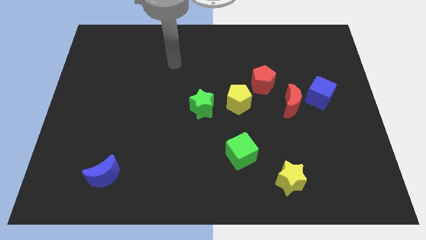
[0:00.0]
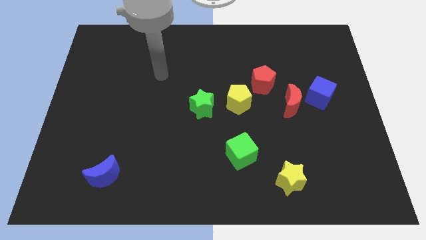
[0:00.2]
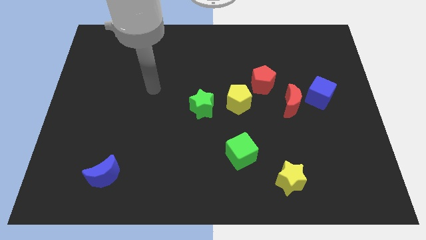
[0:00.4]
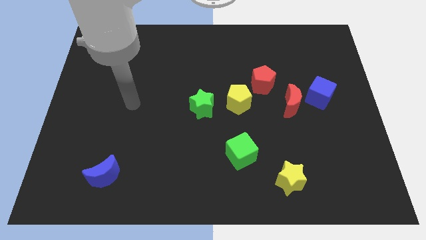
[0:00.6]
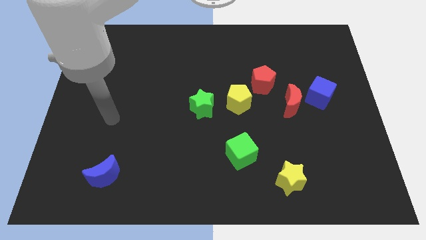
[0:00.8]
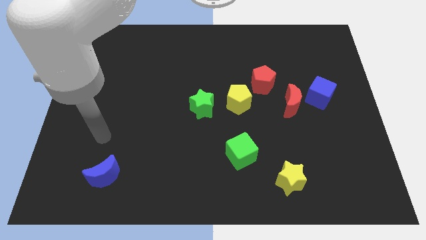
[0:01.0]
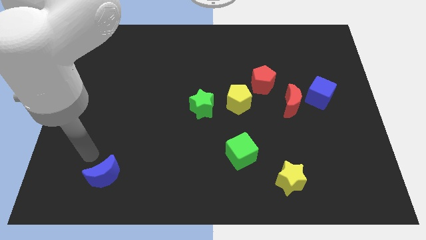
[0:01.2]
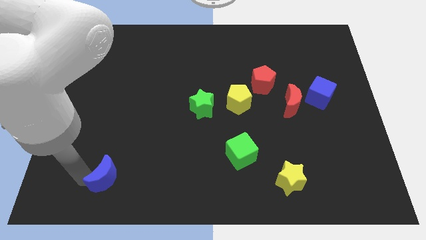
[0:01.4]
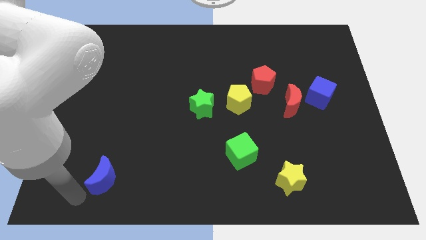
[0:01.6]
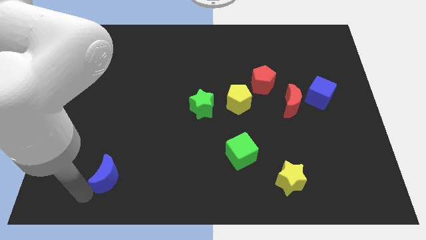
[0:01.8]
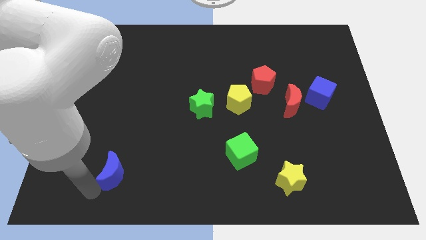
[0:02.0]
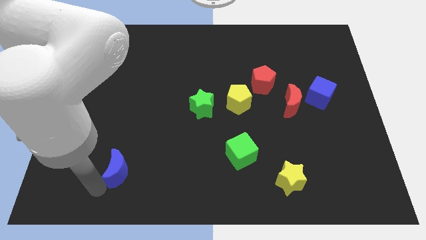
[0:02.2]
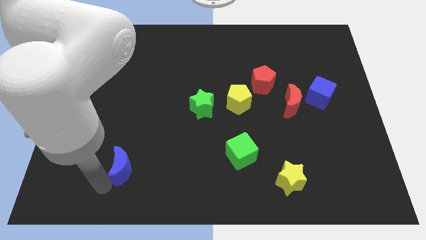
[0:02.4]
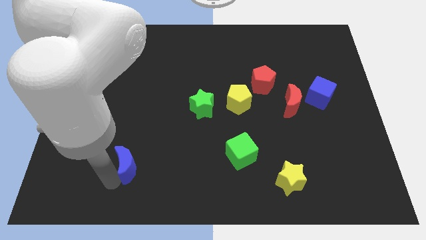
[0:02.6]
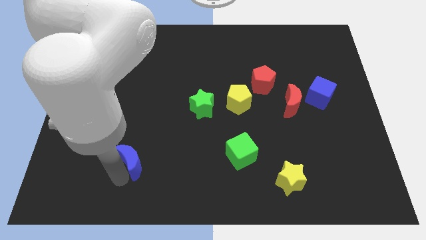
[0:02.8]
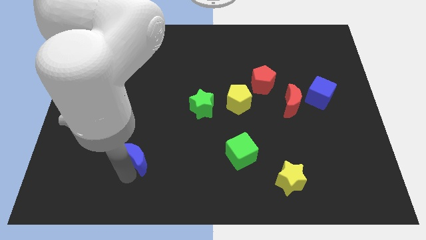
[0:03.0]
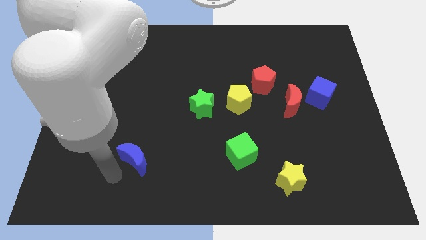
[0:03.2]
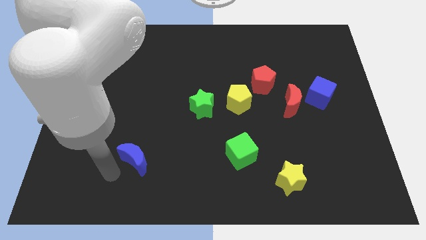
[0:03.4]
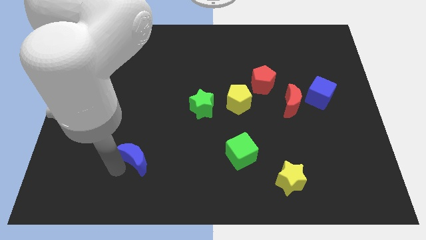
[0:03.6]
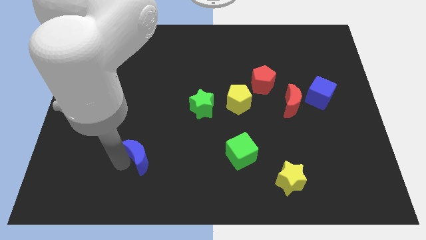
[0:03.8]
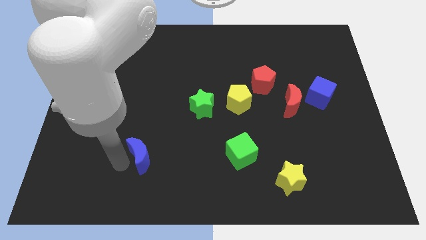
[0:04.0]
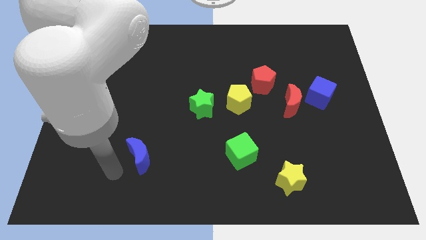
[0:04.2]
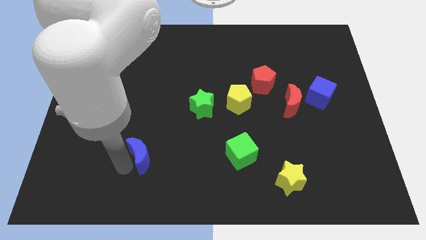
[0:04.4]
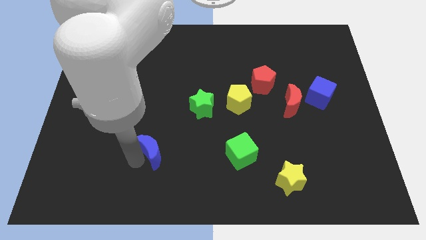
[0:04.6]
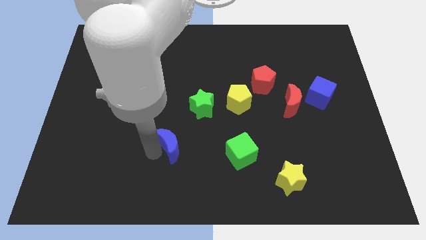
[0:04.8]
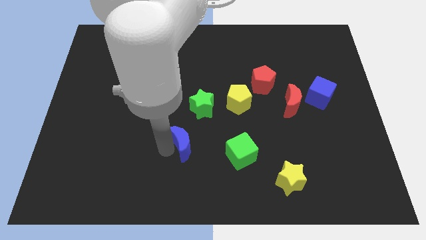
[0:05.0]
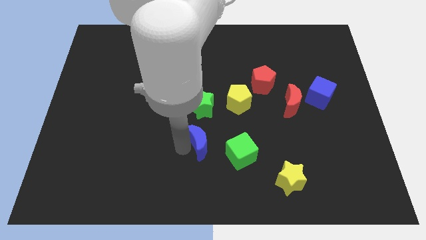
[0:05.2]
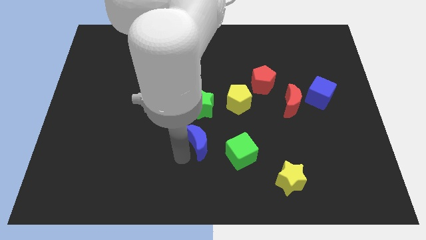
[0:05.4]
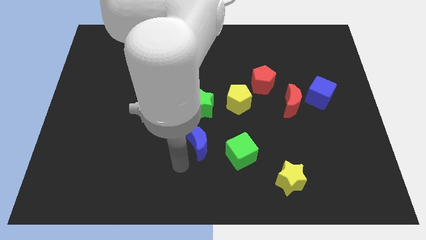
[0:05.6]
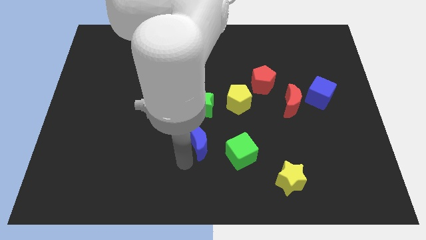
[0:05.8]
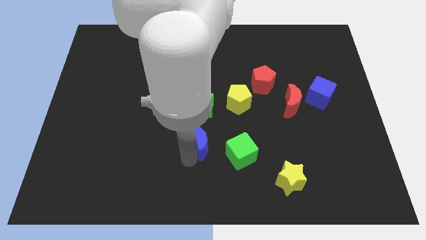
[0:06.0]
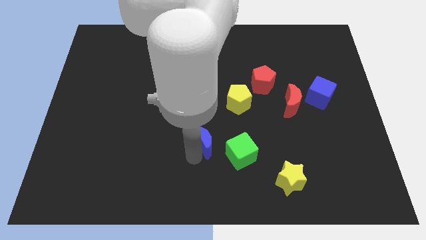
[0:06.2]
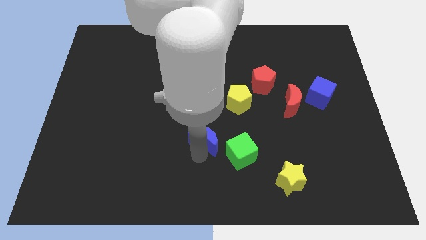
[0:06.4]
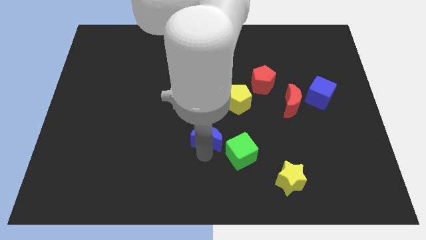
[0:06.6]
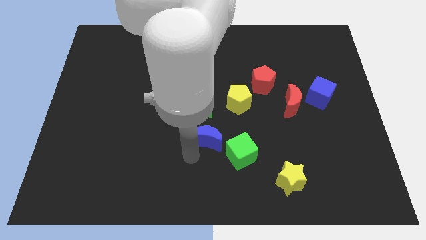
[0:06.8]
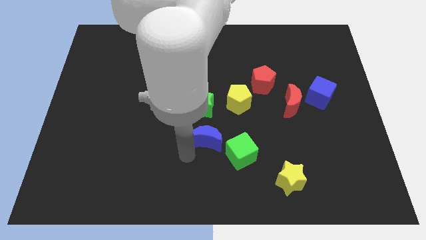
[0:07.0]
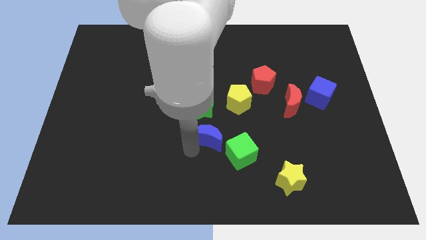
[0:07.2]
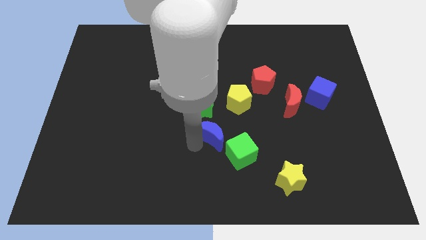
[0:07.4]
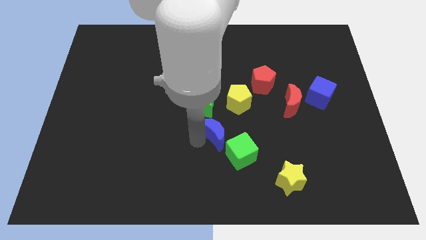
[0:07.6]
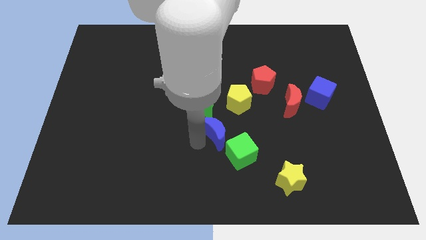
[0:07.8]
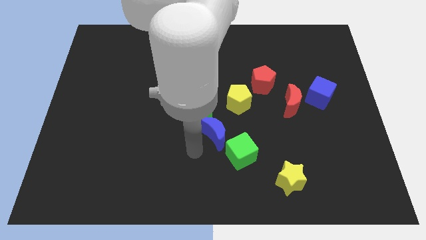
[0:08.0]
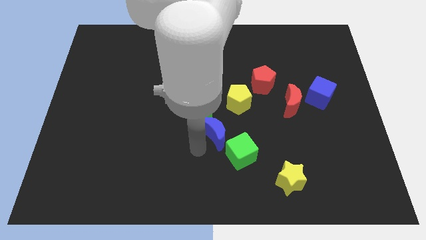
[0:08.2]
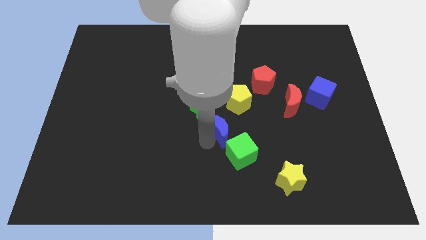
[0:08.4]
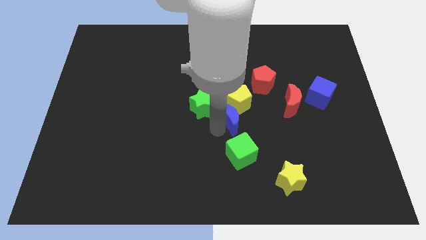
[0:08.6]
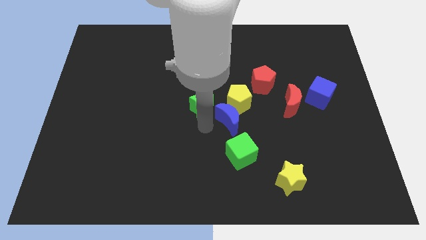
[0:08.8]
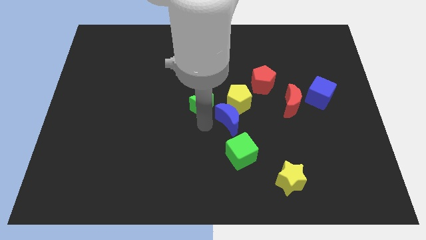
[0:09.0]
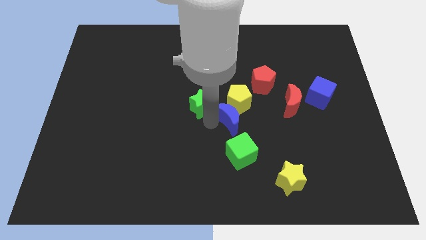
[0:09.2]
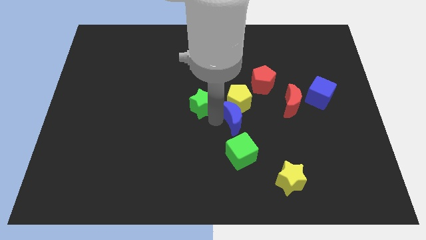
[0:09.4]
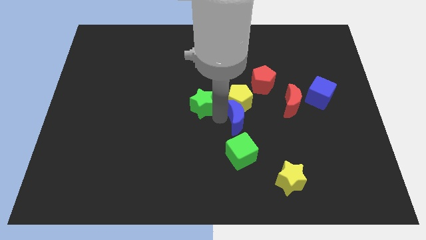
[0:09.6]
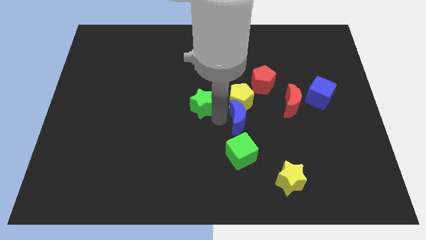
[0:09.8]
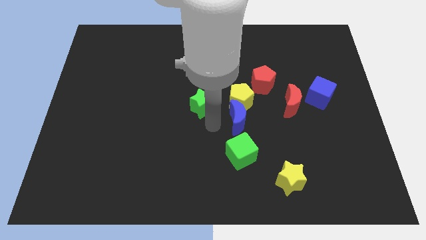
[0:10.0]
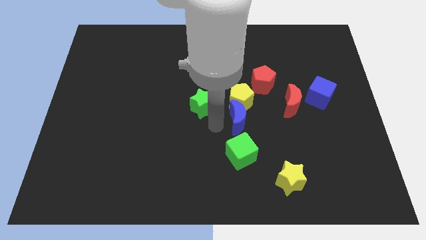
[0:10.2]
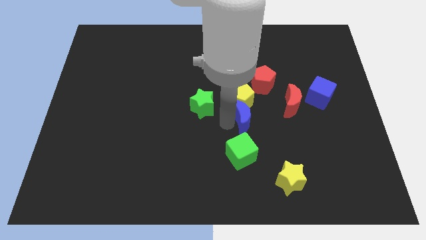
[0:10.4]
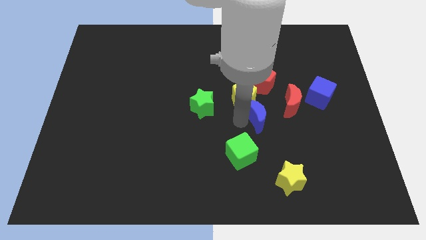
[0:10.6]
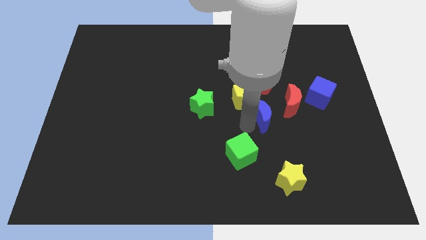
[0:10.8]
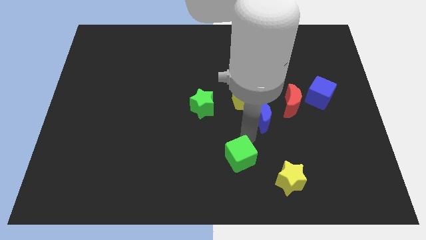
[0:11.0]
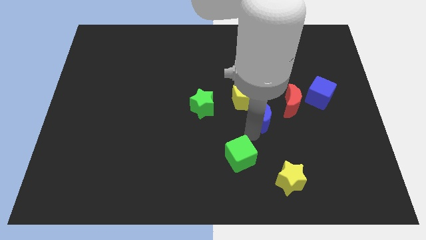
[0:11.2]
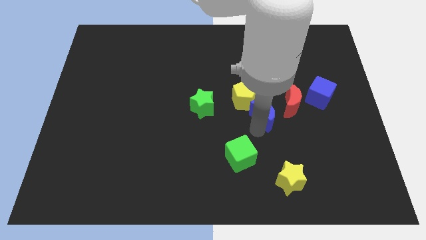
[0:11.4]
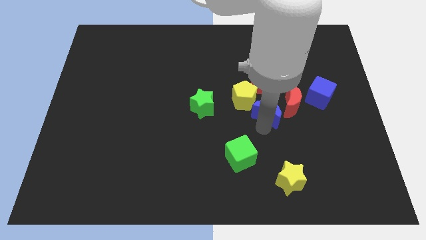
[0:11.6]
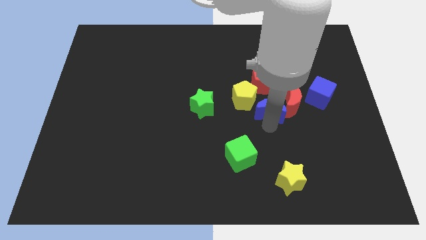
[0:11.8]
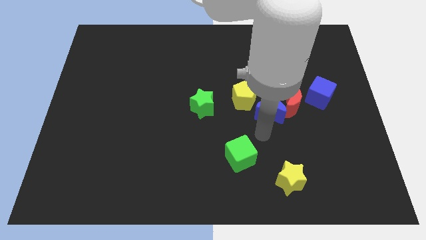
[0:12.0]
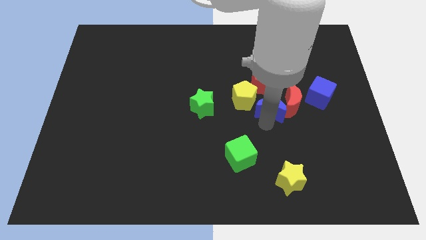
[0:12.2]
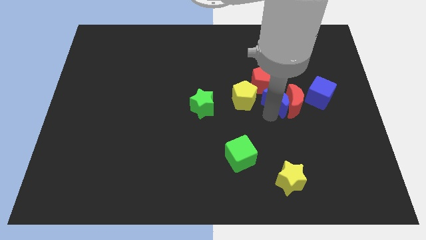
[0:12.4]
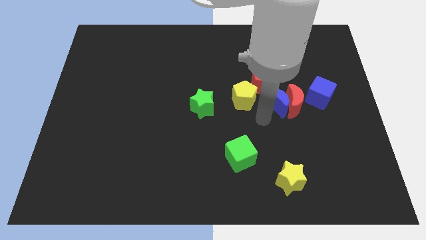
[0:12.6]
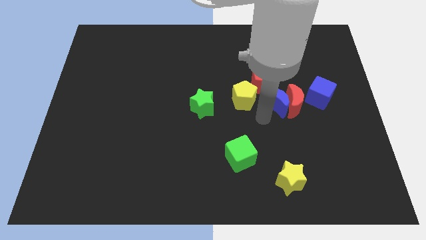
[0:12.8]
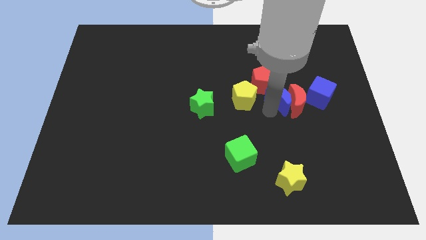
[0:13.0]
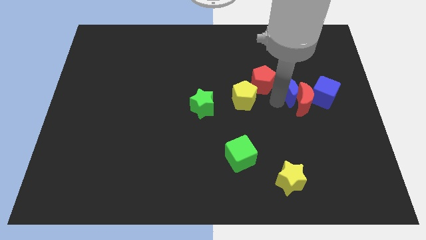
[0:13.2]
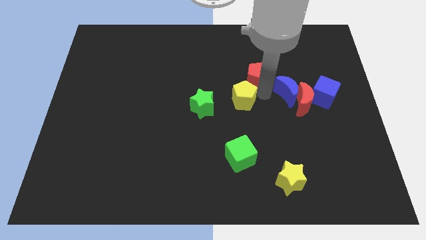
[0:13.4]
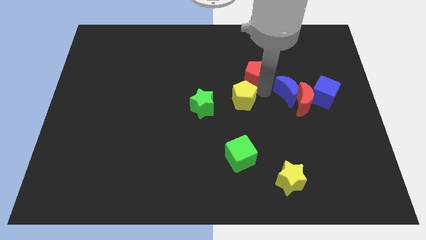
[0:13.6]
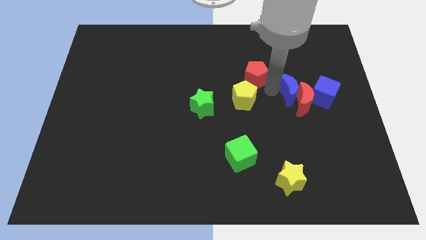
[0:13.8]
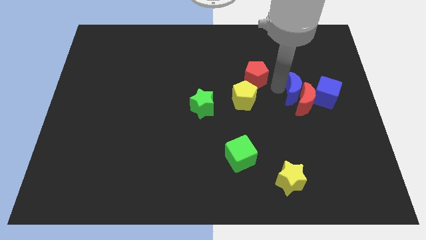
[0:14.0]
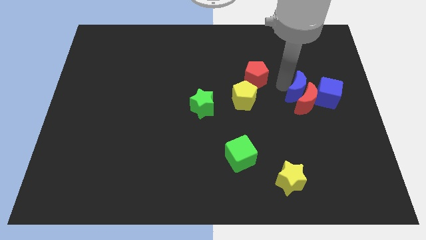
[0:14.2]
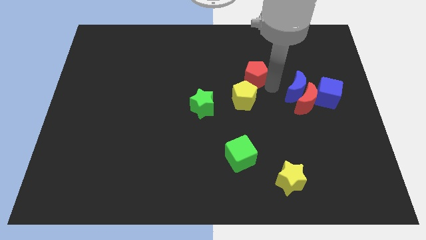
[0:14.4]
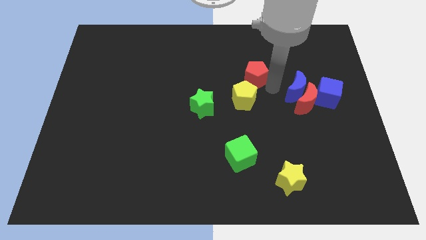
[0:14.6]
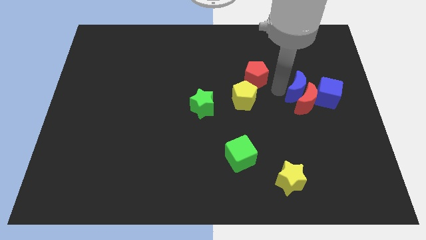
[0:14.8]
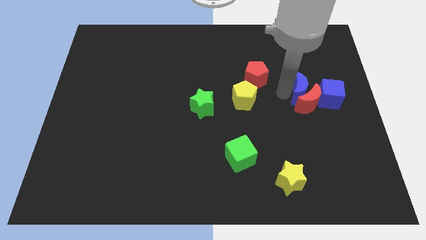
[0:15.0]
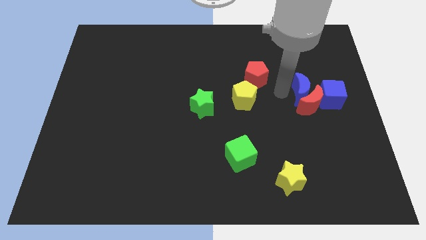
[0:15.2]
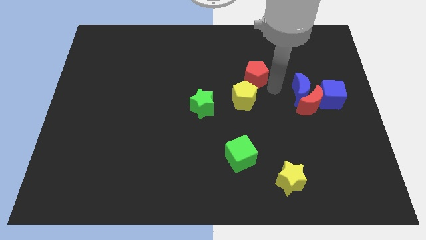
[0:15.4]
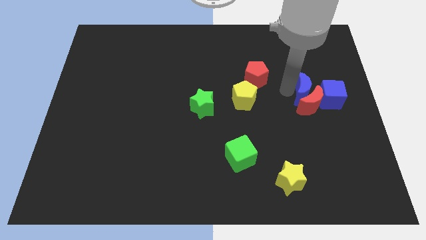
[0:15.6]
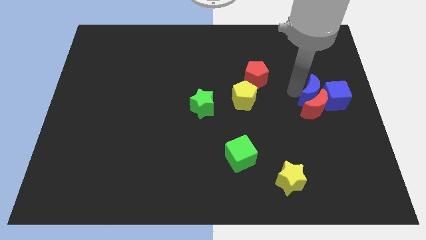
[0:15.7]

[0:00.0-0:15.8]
move the blue moon close to the blue cube
